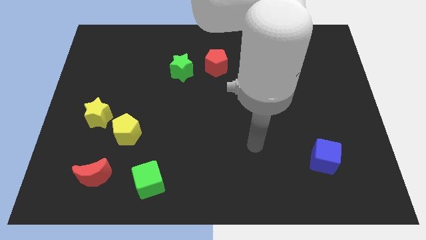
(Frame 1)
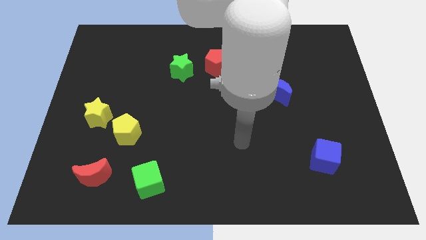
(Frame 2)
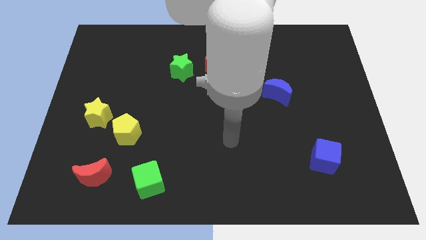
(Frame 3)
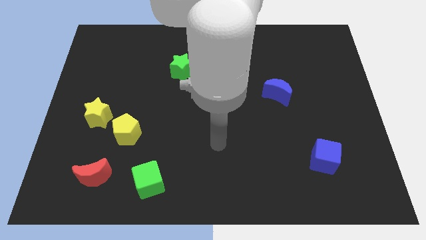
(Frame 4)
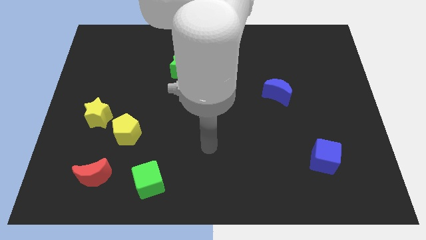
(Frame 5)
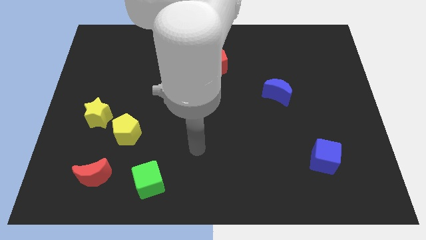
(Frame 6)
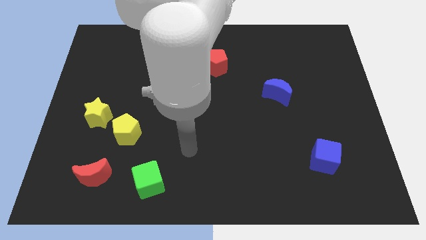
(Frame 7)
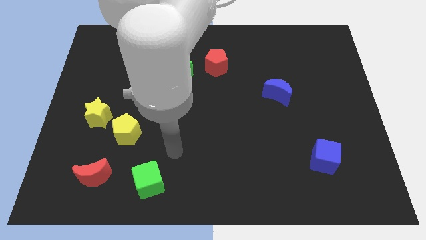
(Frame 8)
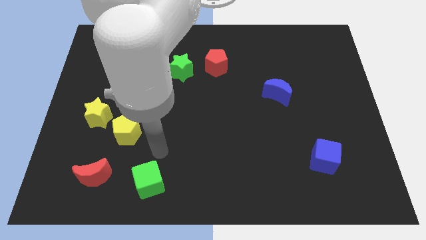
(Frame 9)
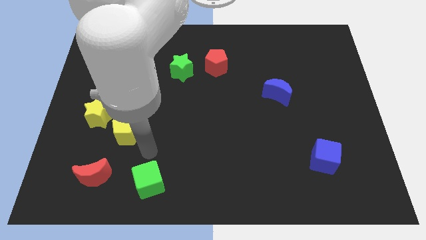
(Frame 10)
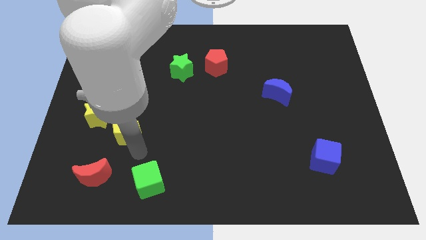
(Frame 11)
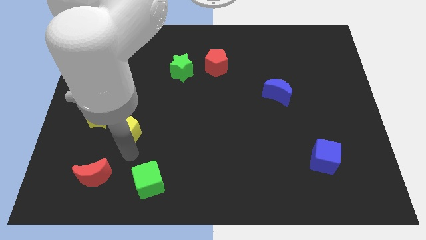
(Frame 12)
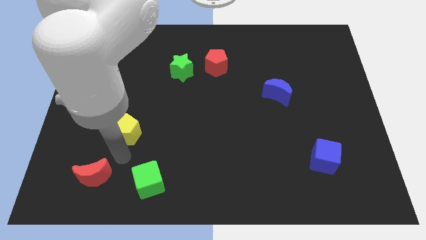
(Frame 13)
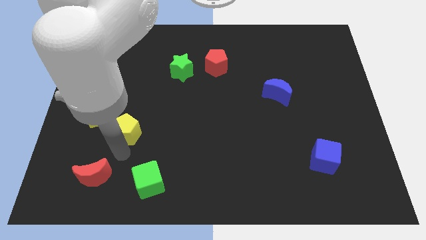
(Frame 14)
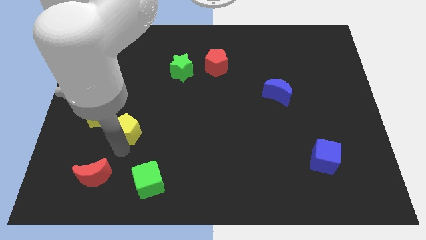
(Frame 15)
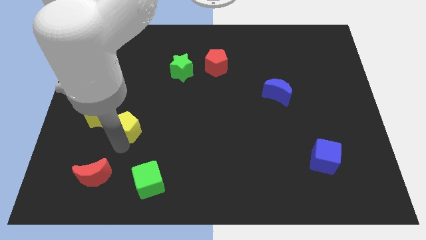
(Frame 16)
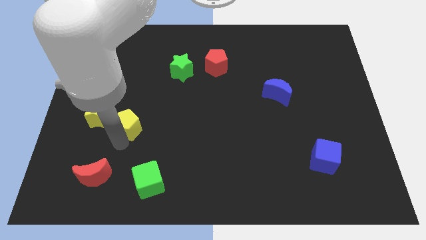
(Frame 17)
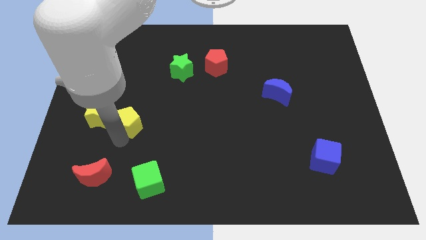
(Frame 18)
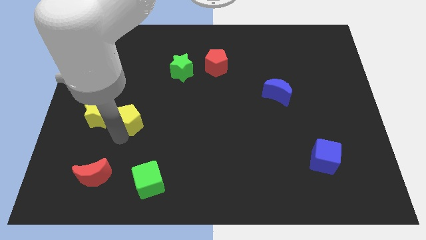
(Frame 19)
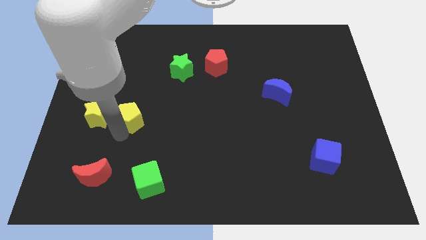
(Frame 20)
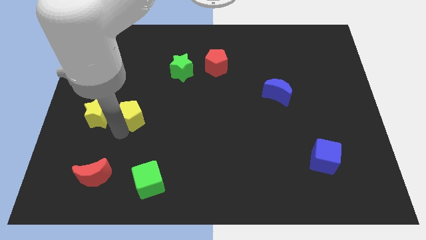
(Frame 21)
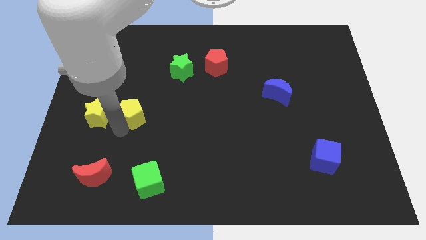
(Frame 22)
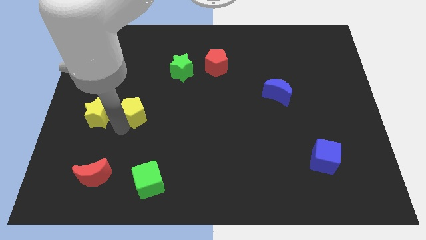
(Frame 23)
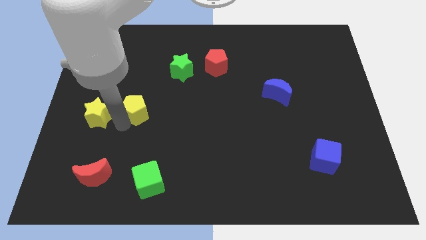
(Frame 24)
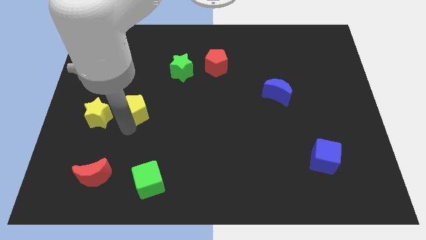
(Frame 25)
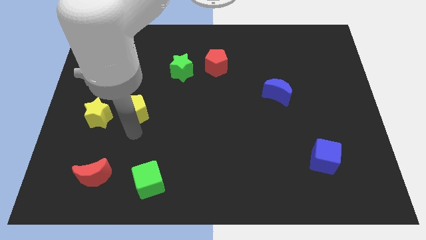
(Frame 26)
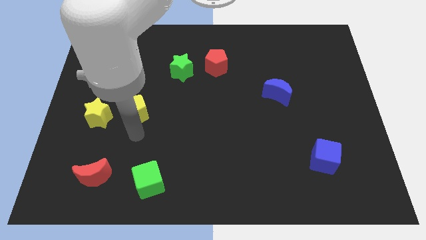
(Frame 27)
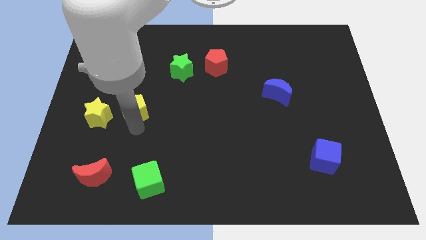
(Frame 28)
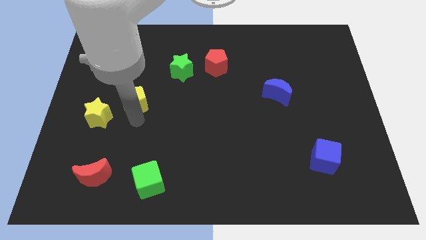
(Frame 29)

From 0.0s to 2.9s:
slightly move the yellow pentagon upwards

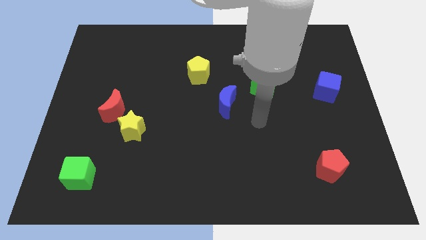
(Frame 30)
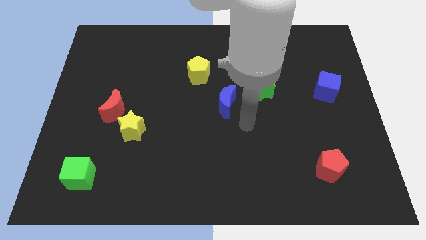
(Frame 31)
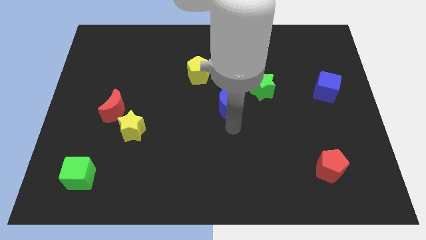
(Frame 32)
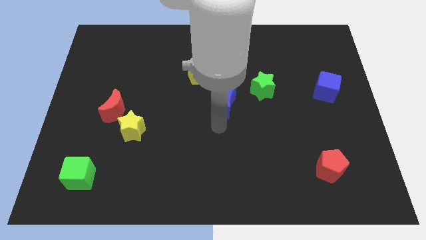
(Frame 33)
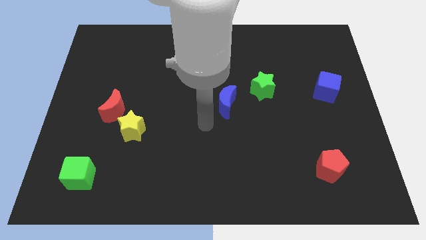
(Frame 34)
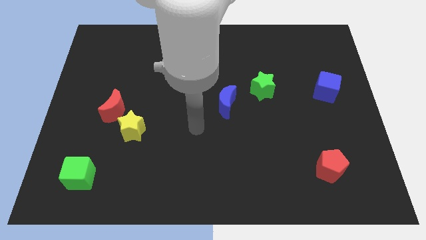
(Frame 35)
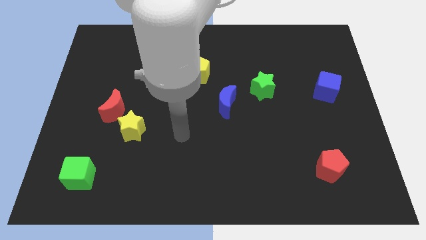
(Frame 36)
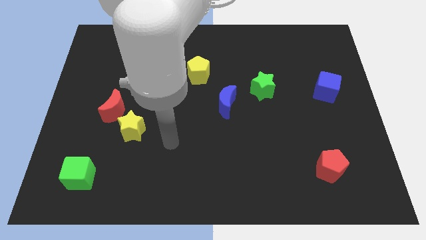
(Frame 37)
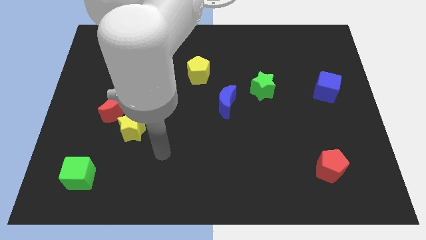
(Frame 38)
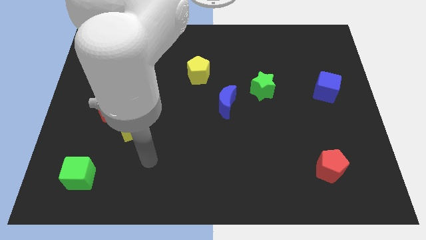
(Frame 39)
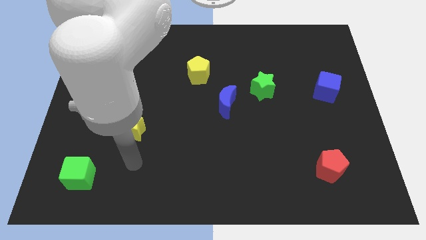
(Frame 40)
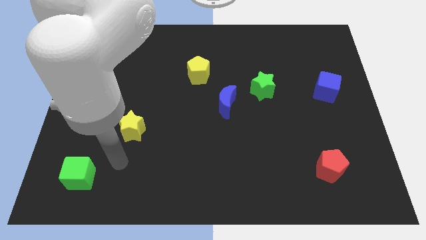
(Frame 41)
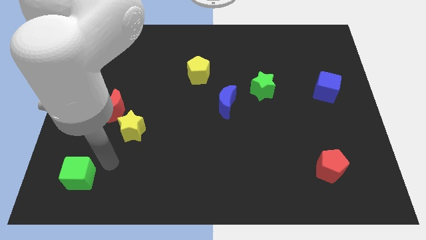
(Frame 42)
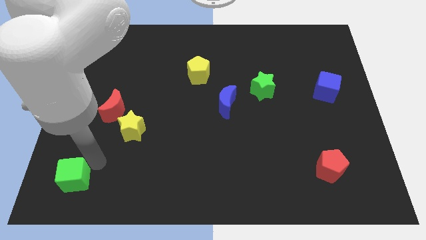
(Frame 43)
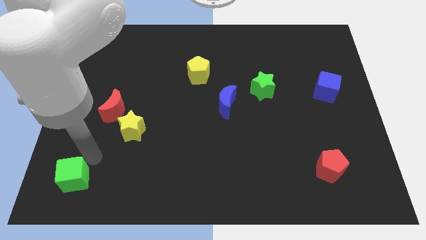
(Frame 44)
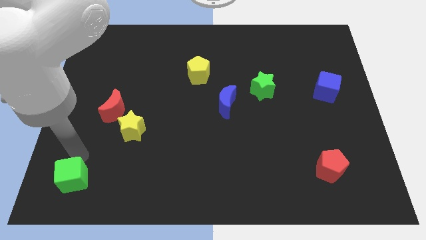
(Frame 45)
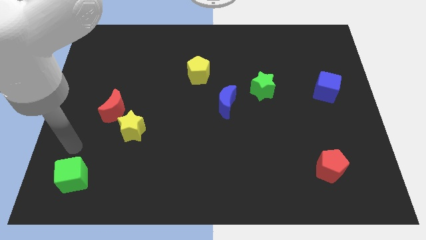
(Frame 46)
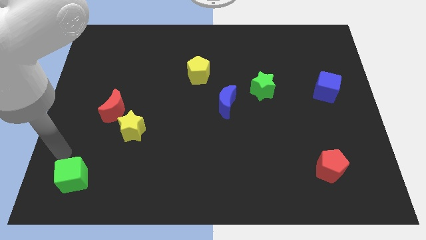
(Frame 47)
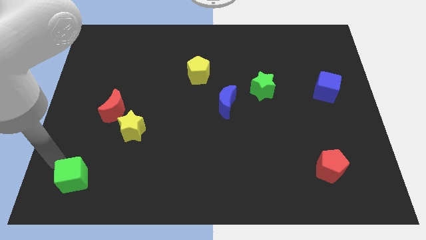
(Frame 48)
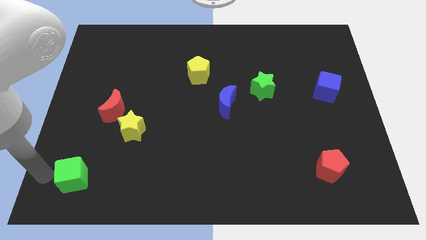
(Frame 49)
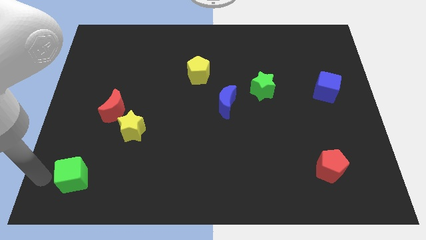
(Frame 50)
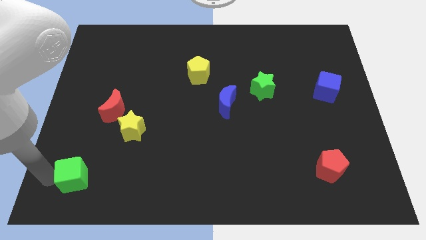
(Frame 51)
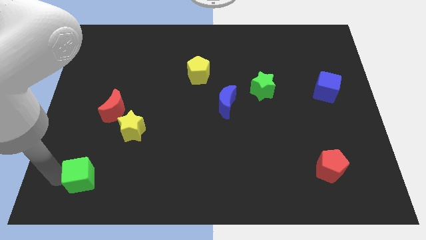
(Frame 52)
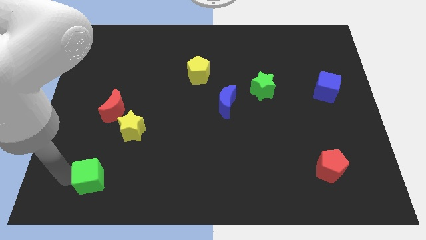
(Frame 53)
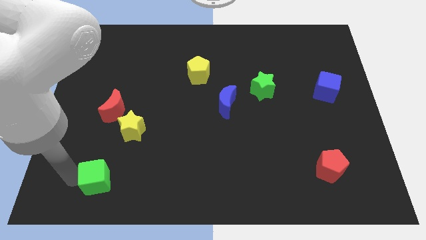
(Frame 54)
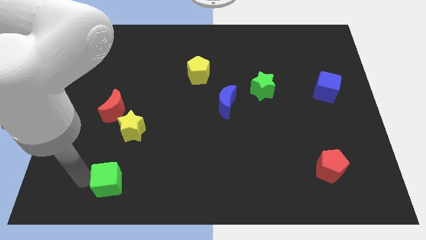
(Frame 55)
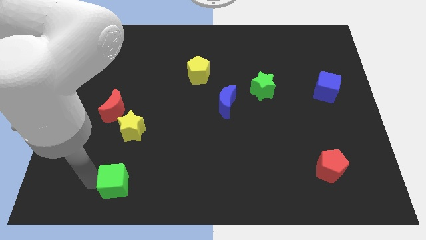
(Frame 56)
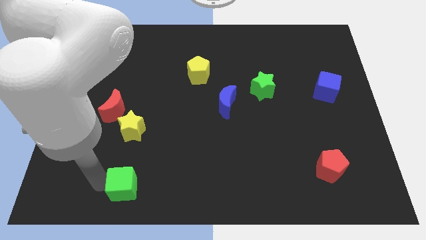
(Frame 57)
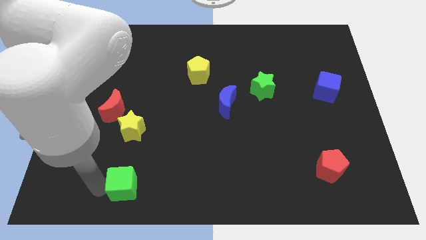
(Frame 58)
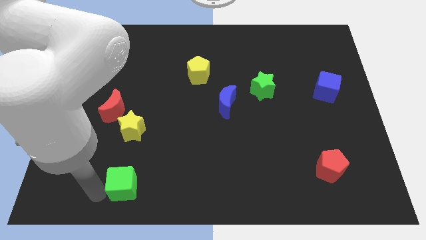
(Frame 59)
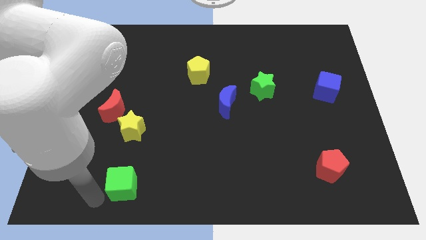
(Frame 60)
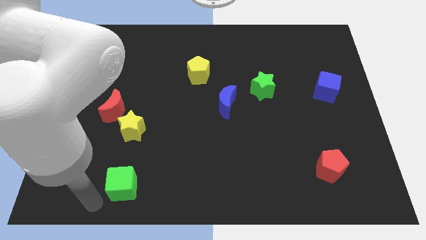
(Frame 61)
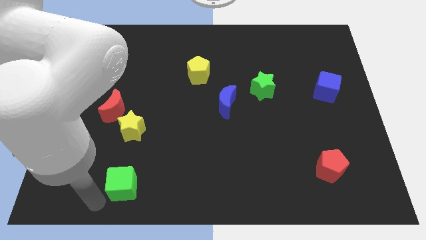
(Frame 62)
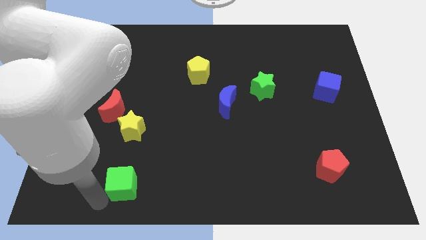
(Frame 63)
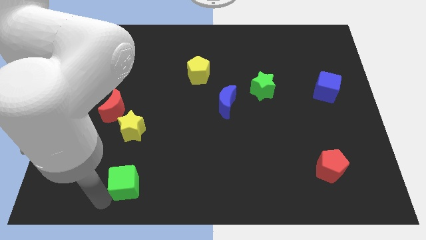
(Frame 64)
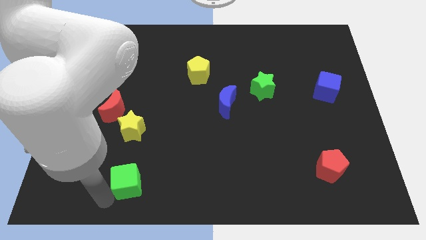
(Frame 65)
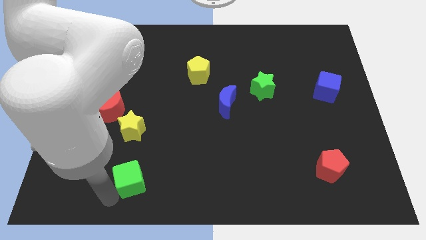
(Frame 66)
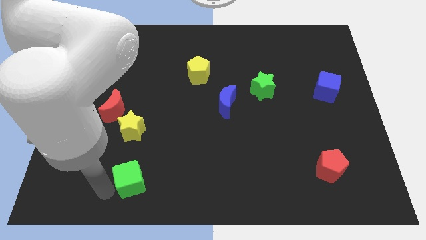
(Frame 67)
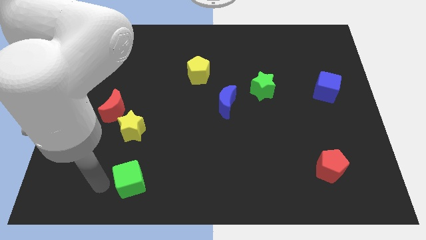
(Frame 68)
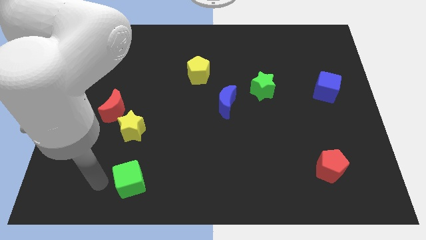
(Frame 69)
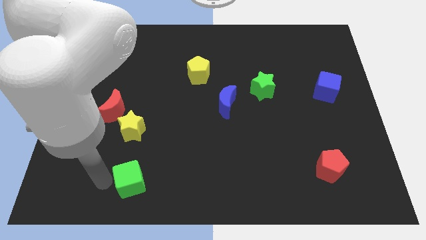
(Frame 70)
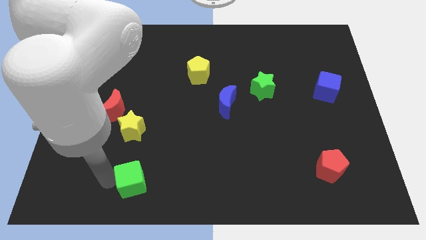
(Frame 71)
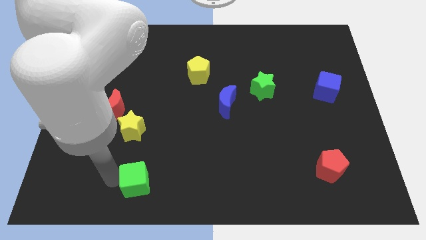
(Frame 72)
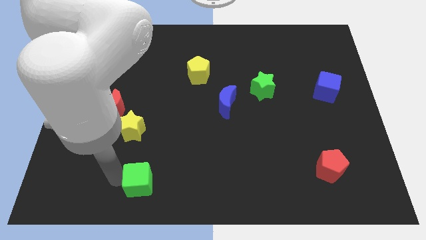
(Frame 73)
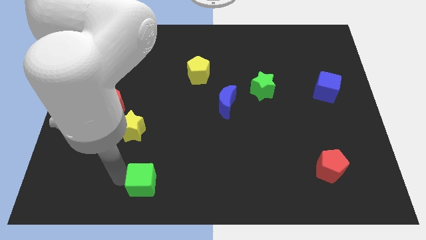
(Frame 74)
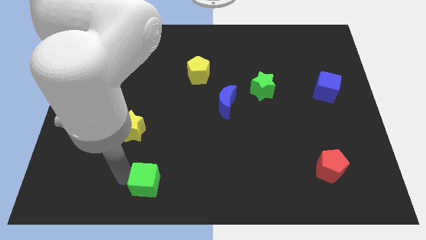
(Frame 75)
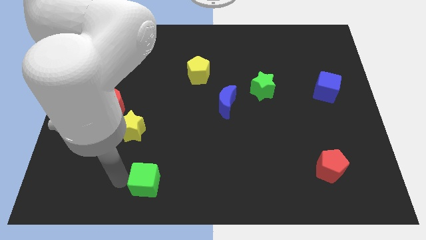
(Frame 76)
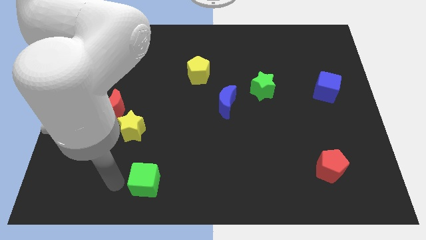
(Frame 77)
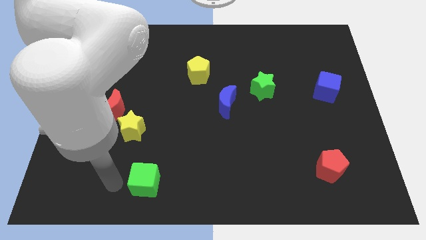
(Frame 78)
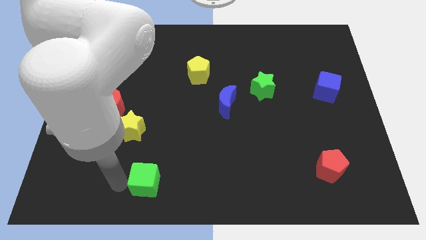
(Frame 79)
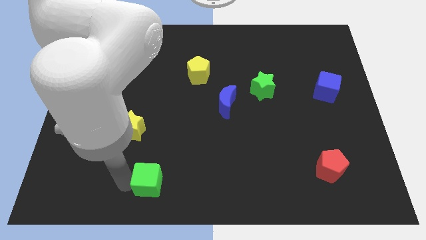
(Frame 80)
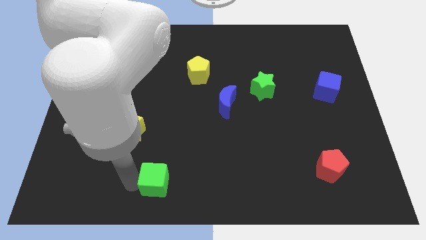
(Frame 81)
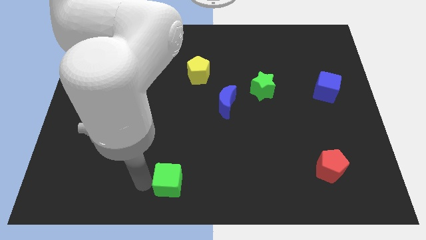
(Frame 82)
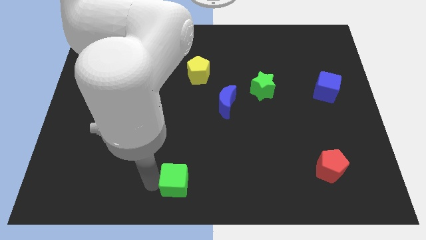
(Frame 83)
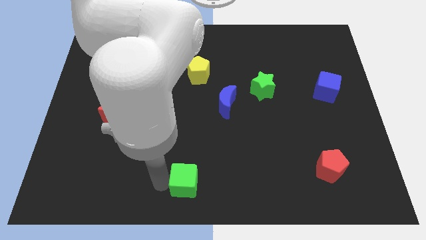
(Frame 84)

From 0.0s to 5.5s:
push the green cube to the right
